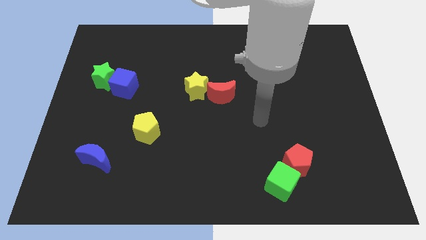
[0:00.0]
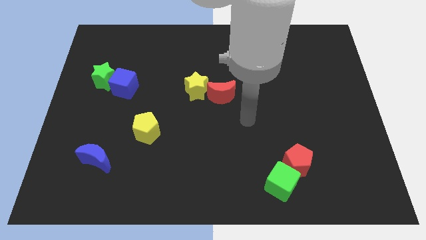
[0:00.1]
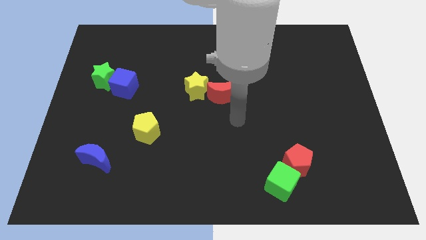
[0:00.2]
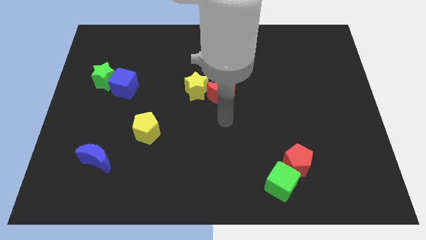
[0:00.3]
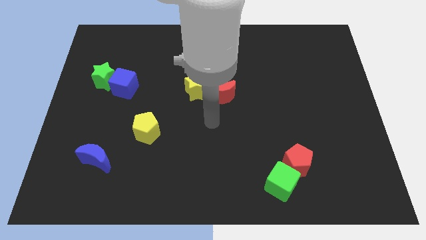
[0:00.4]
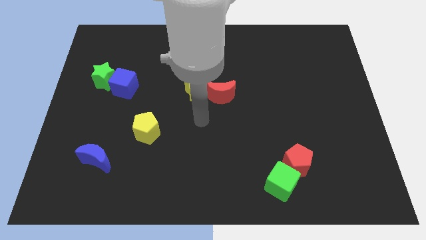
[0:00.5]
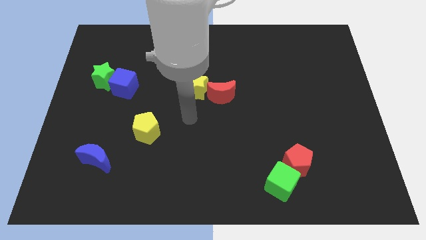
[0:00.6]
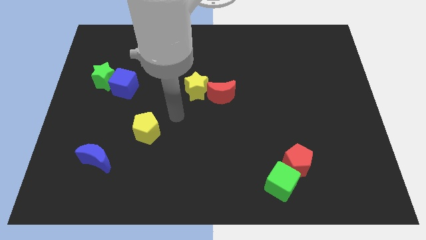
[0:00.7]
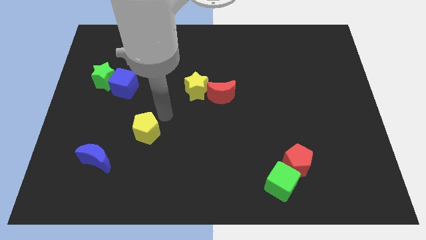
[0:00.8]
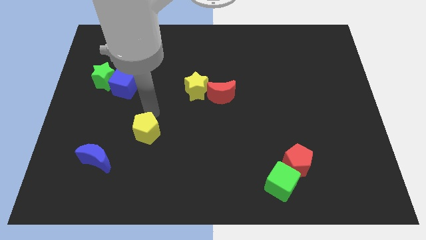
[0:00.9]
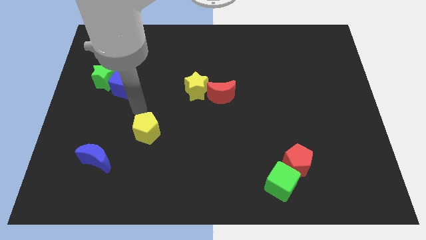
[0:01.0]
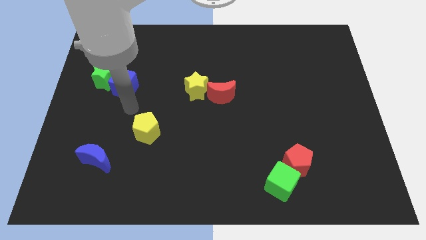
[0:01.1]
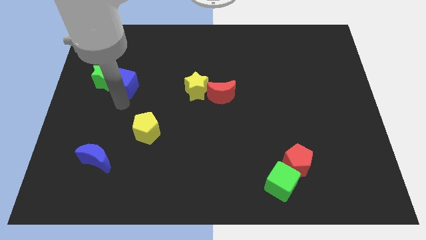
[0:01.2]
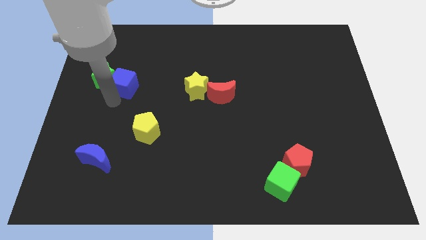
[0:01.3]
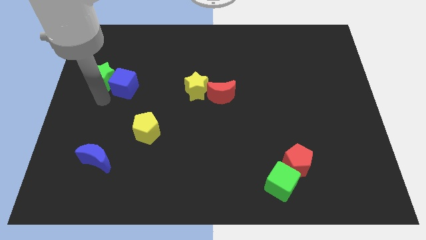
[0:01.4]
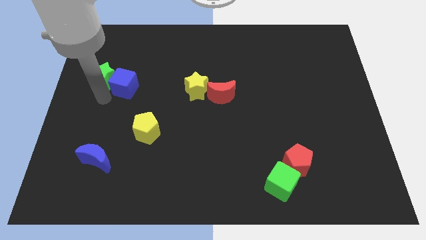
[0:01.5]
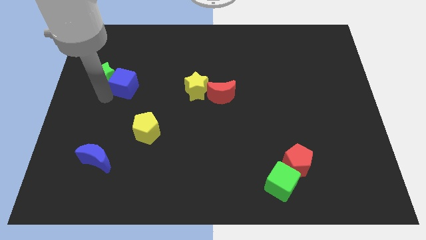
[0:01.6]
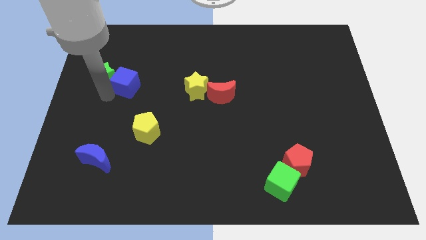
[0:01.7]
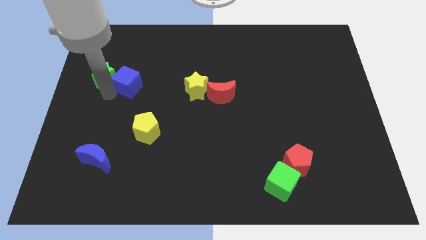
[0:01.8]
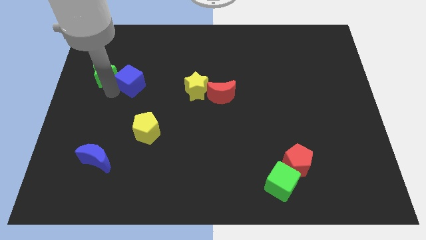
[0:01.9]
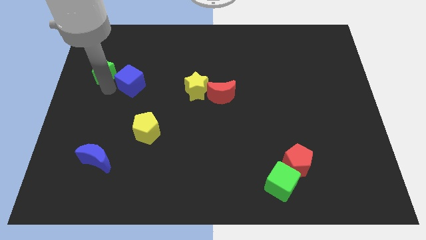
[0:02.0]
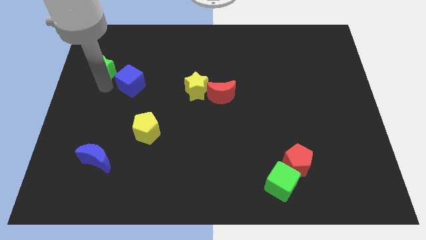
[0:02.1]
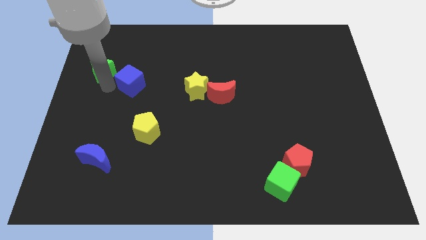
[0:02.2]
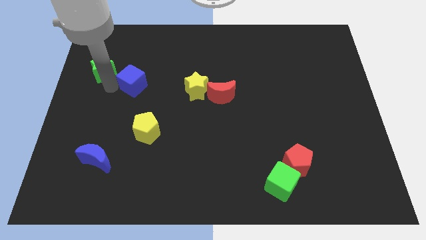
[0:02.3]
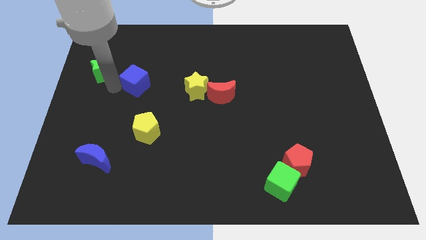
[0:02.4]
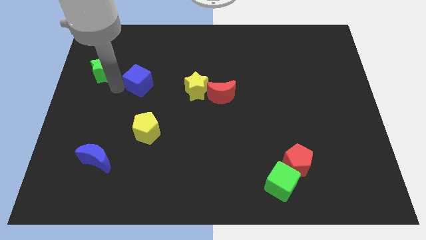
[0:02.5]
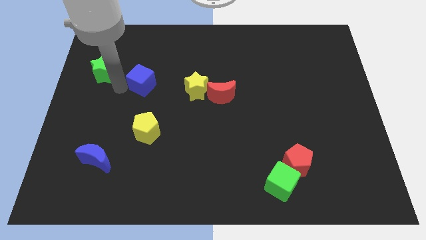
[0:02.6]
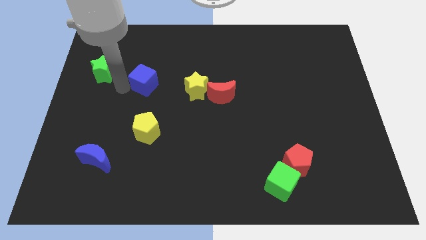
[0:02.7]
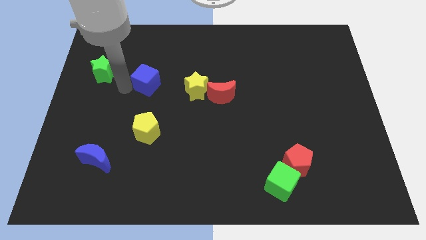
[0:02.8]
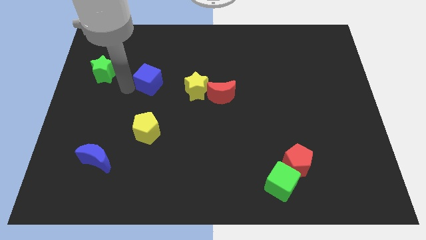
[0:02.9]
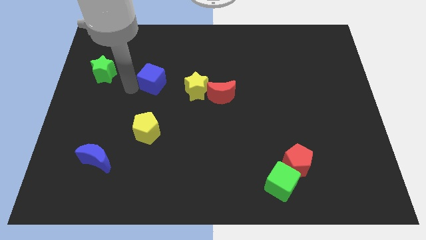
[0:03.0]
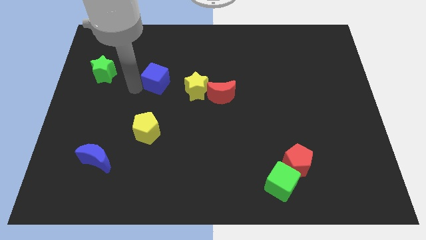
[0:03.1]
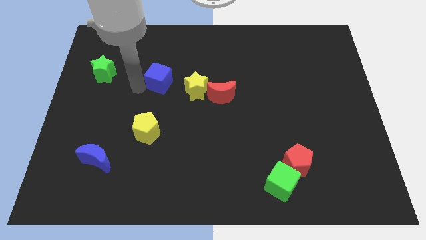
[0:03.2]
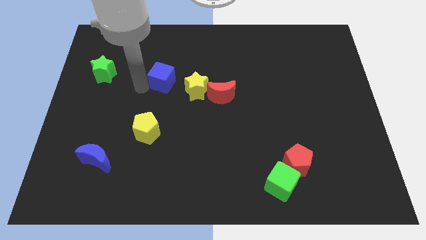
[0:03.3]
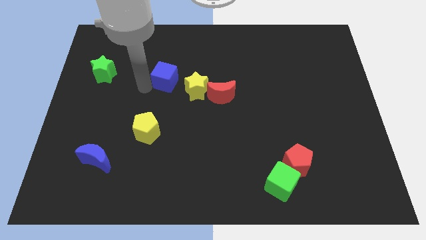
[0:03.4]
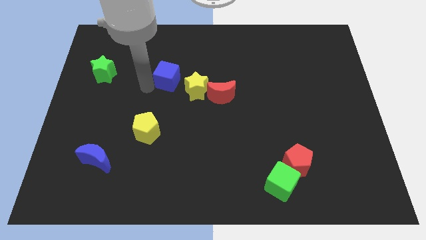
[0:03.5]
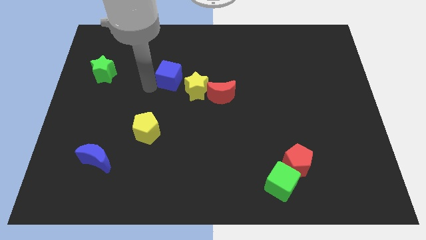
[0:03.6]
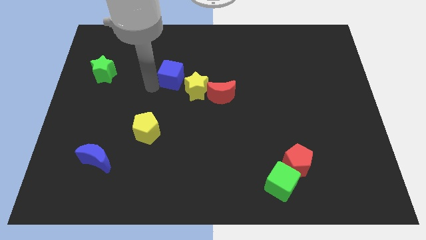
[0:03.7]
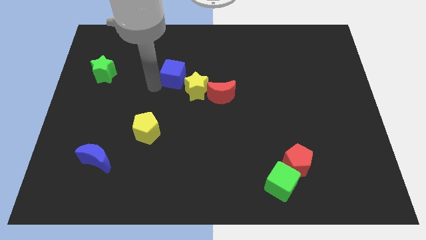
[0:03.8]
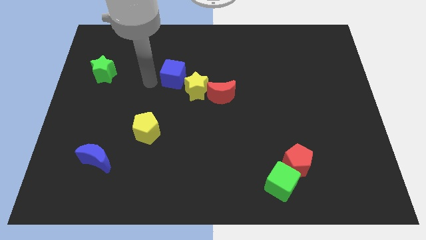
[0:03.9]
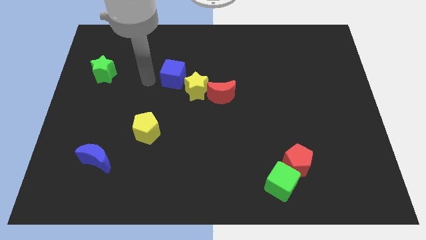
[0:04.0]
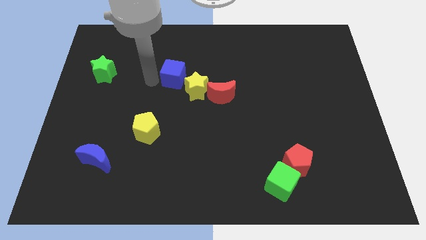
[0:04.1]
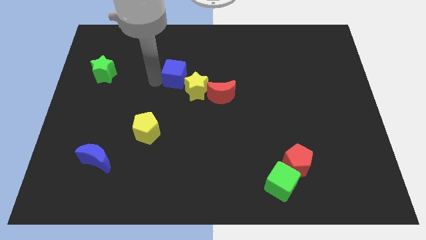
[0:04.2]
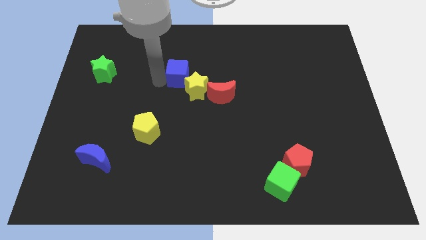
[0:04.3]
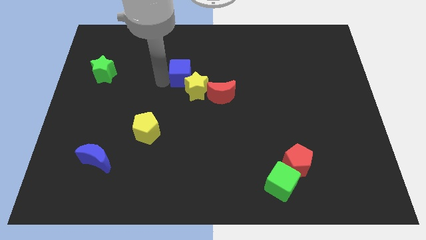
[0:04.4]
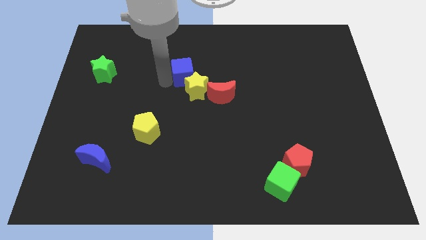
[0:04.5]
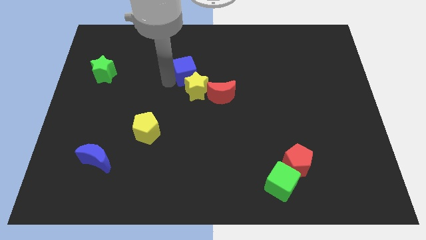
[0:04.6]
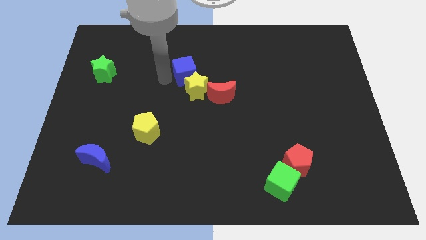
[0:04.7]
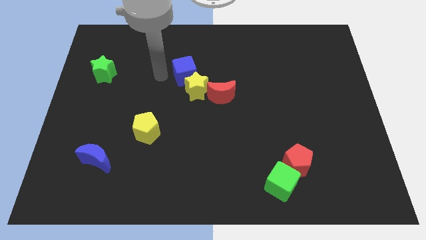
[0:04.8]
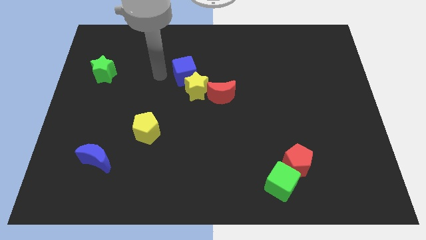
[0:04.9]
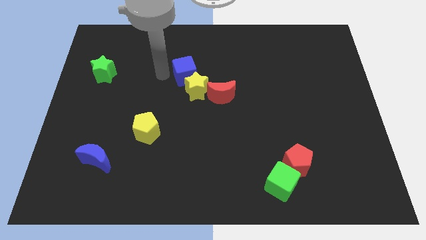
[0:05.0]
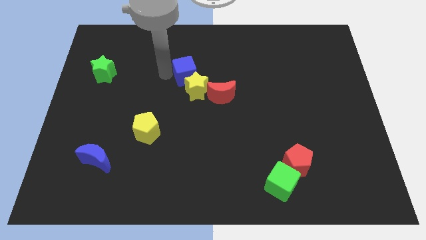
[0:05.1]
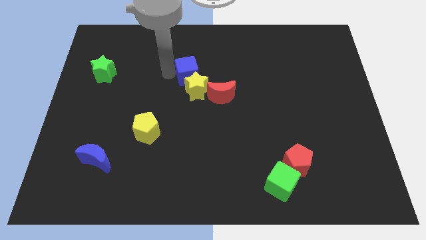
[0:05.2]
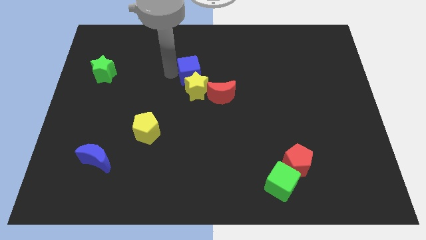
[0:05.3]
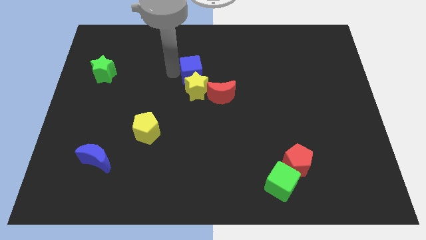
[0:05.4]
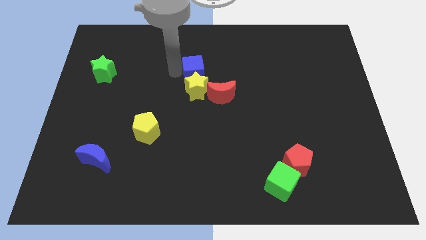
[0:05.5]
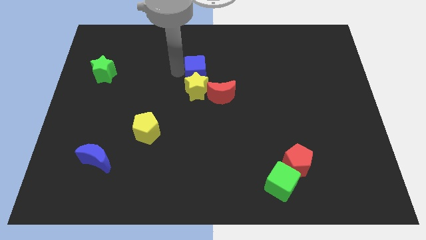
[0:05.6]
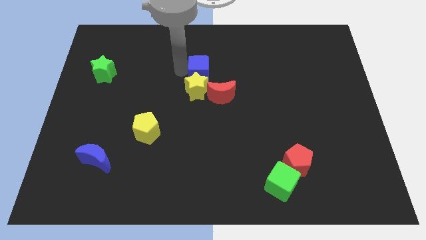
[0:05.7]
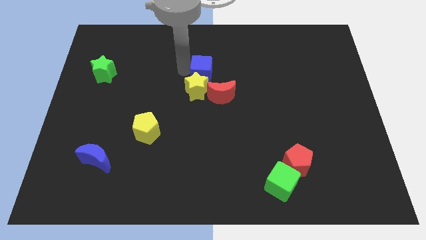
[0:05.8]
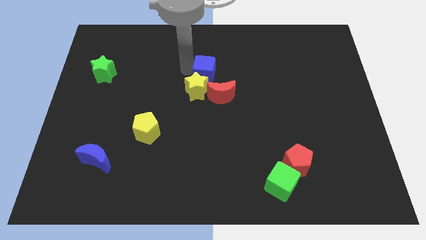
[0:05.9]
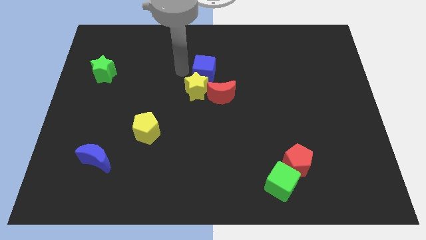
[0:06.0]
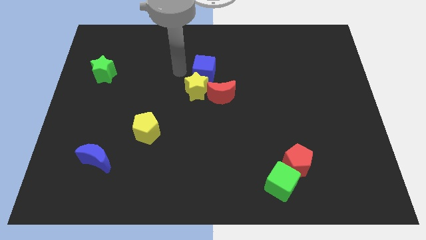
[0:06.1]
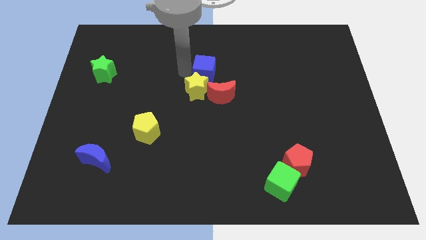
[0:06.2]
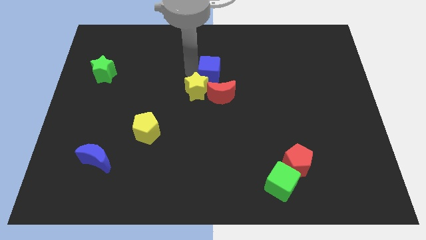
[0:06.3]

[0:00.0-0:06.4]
push the blue cube to the right

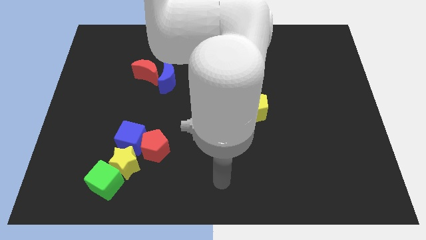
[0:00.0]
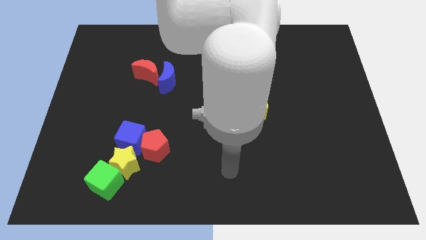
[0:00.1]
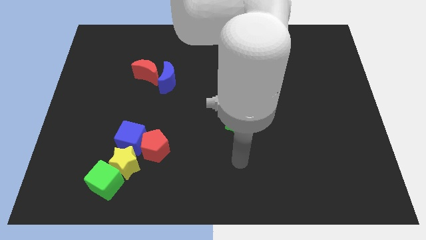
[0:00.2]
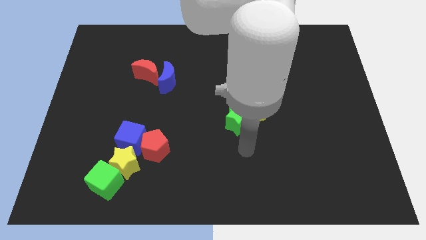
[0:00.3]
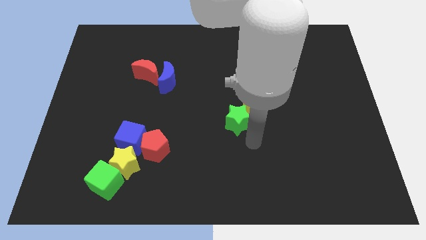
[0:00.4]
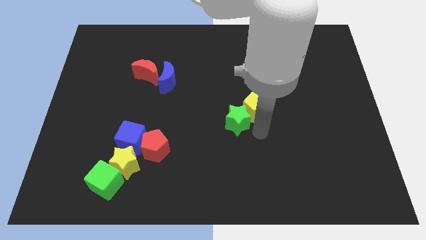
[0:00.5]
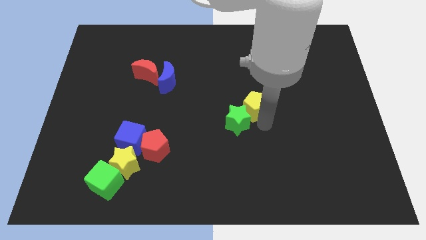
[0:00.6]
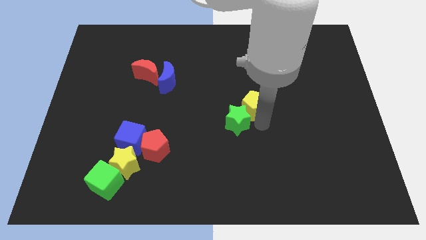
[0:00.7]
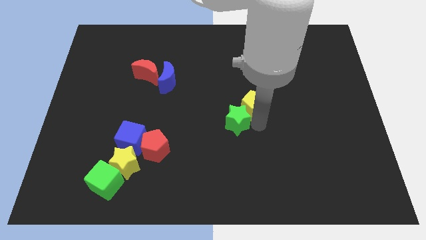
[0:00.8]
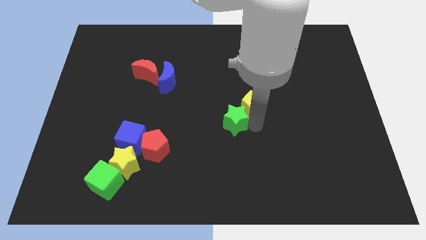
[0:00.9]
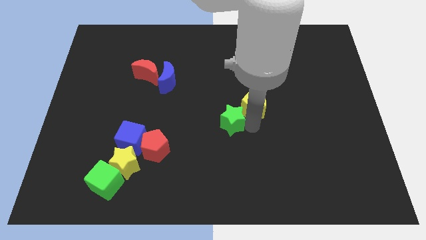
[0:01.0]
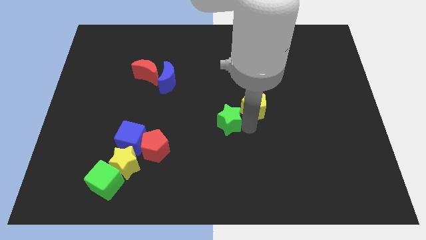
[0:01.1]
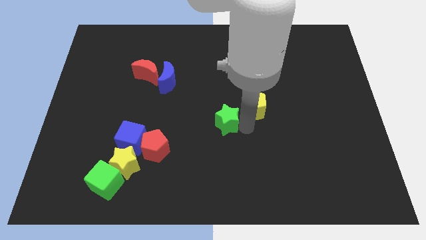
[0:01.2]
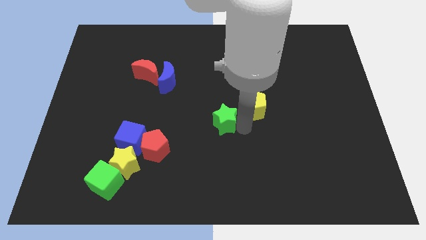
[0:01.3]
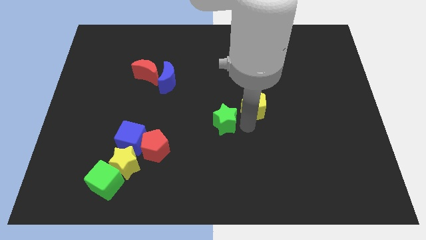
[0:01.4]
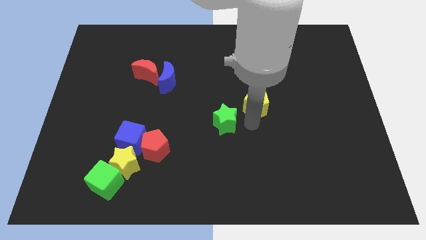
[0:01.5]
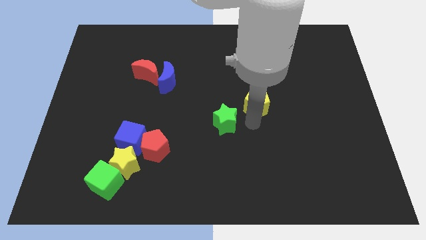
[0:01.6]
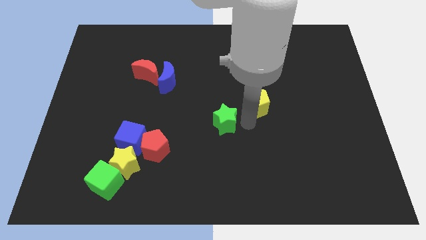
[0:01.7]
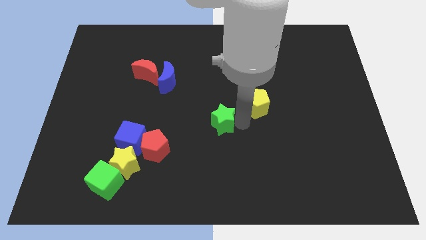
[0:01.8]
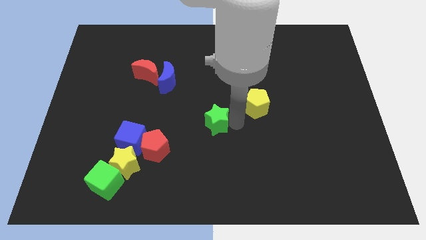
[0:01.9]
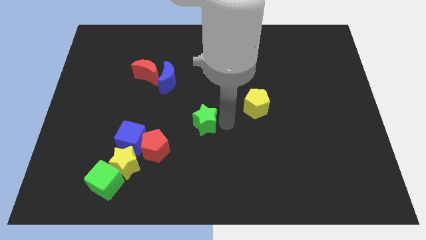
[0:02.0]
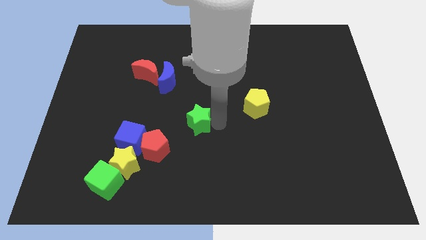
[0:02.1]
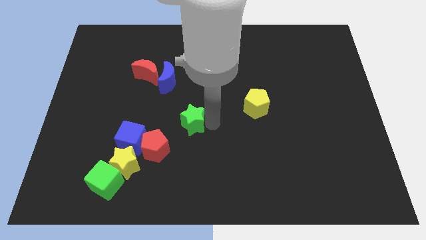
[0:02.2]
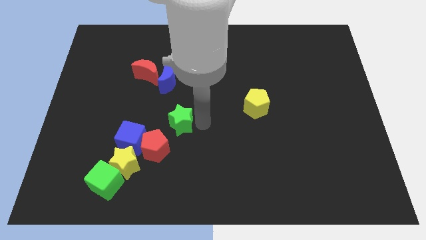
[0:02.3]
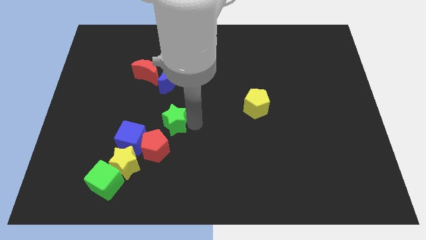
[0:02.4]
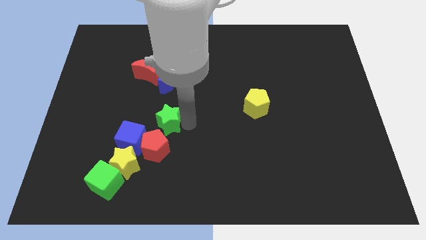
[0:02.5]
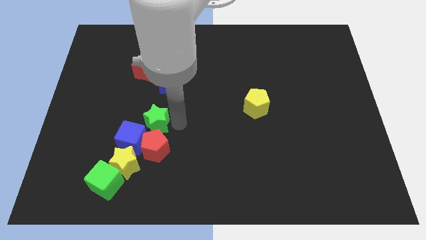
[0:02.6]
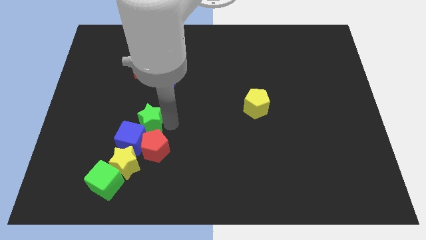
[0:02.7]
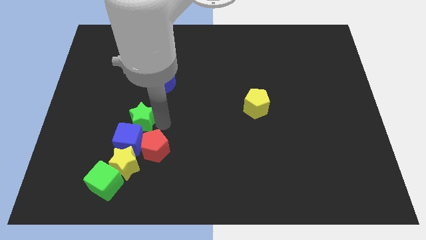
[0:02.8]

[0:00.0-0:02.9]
move the green star left
